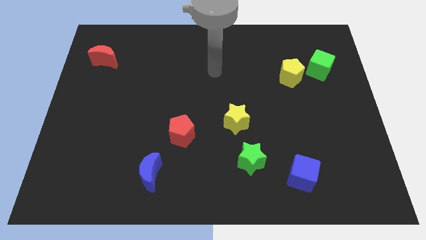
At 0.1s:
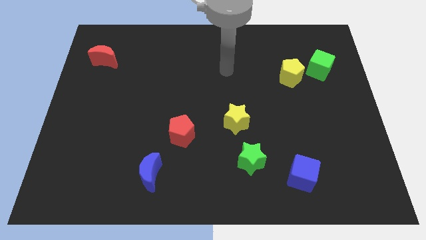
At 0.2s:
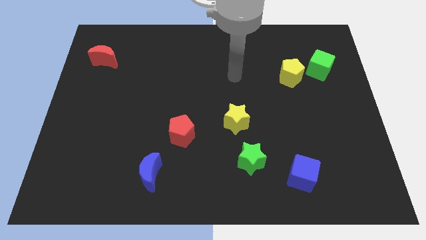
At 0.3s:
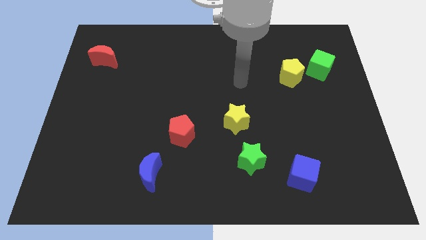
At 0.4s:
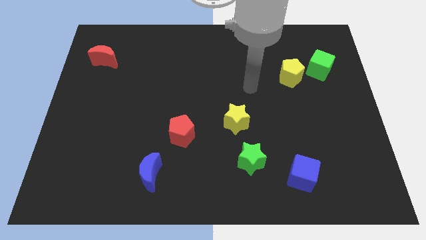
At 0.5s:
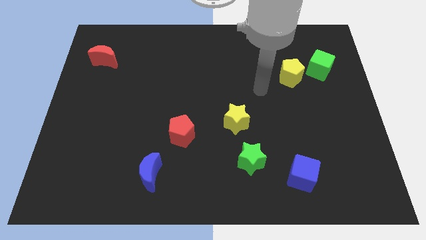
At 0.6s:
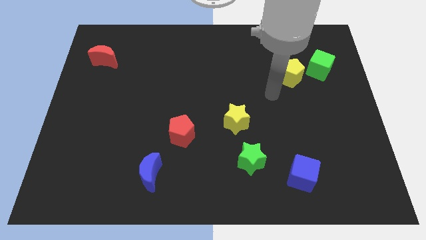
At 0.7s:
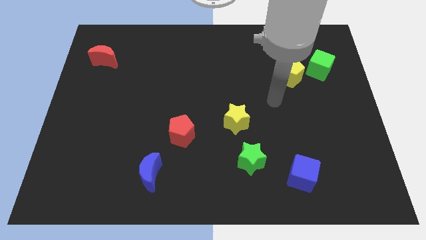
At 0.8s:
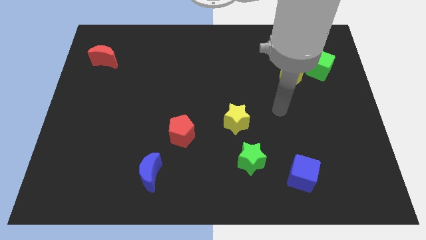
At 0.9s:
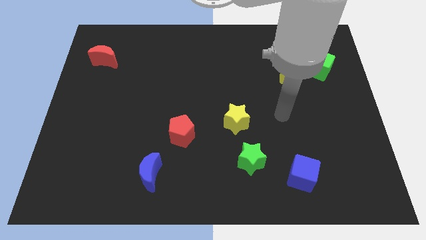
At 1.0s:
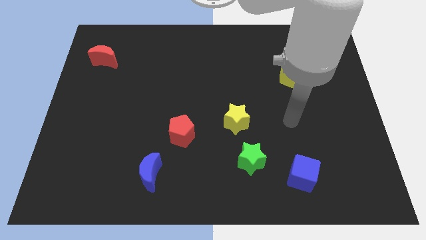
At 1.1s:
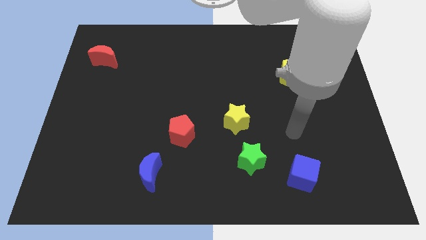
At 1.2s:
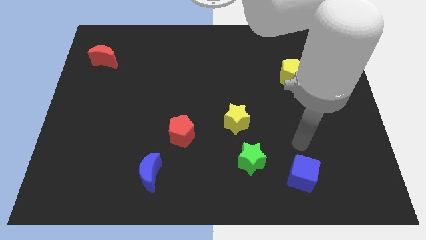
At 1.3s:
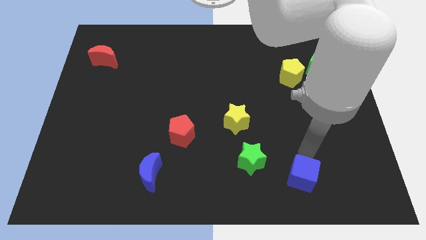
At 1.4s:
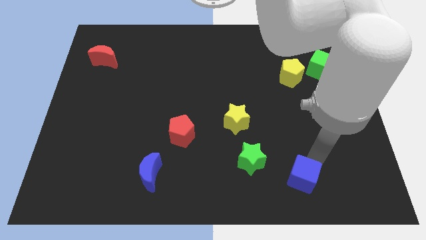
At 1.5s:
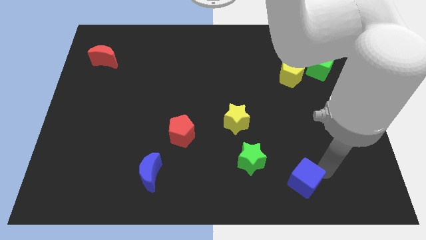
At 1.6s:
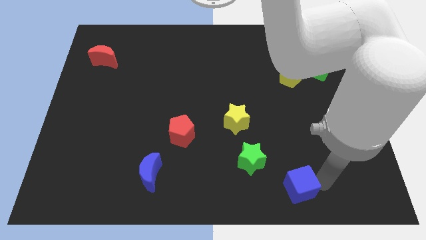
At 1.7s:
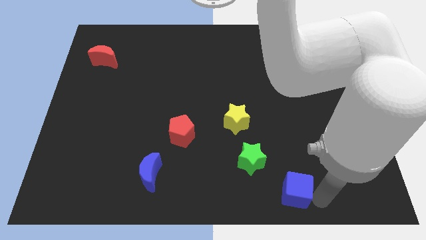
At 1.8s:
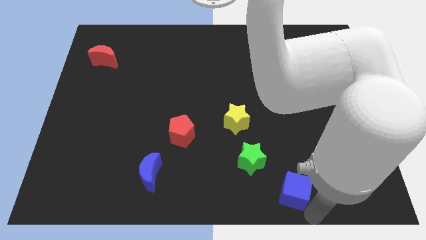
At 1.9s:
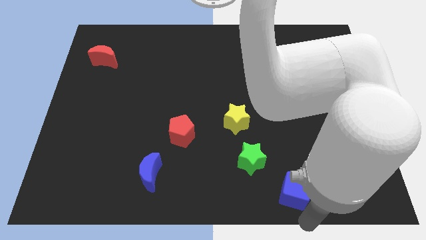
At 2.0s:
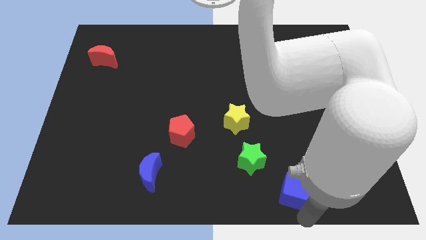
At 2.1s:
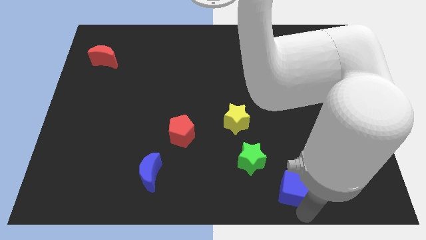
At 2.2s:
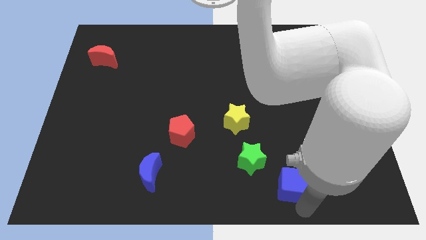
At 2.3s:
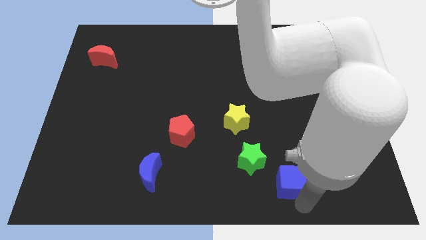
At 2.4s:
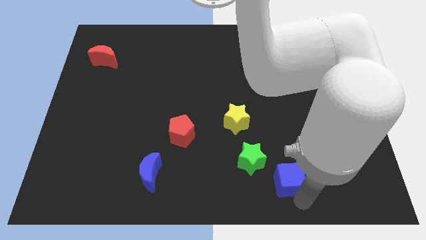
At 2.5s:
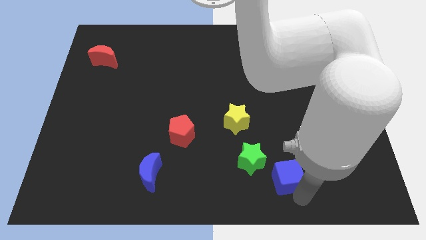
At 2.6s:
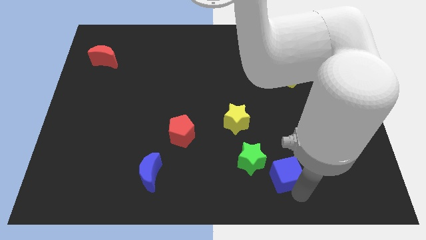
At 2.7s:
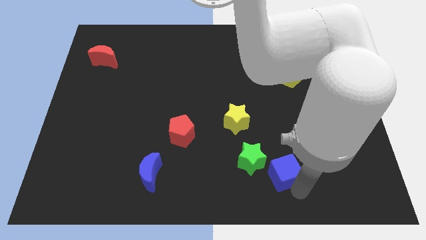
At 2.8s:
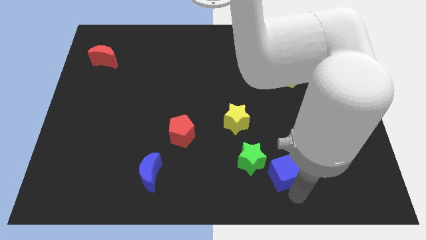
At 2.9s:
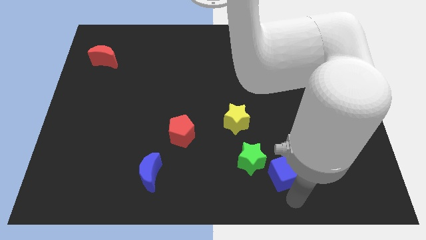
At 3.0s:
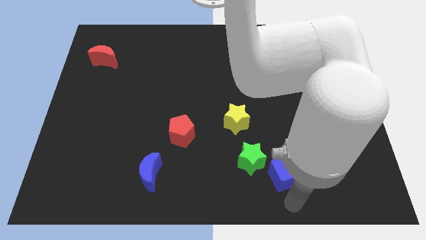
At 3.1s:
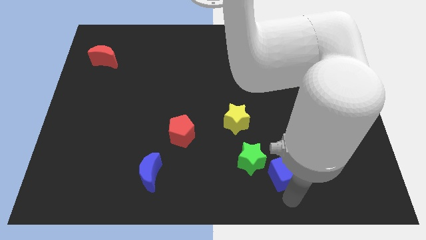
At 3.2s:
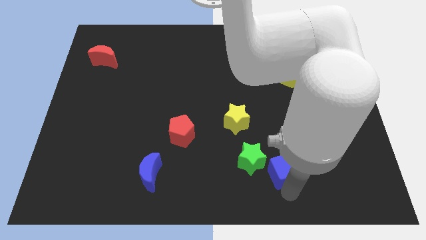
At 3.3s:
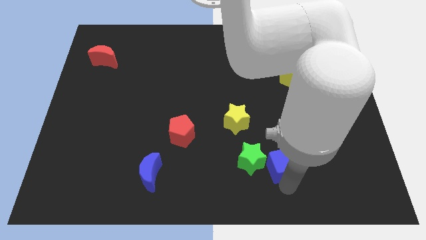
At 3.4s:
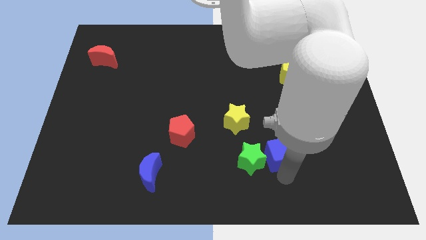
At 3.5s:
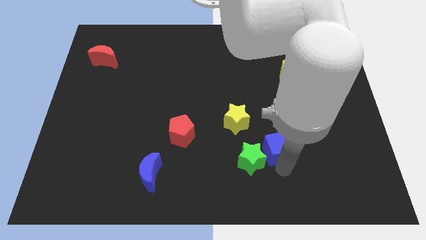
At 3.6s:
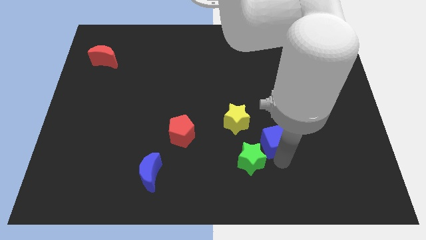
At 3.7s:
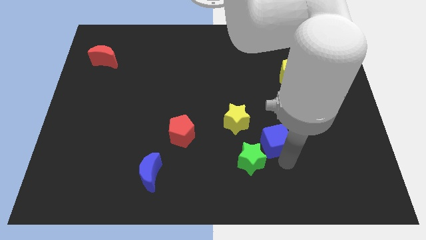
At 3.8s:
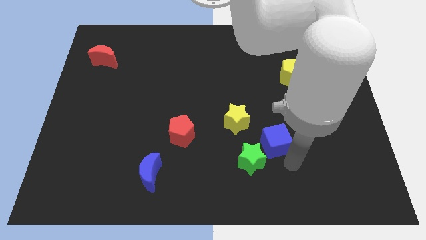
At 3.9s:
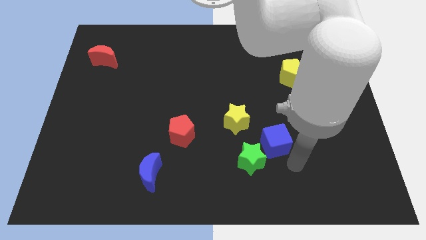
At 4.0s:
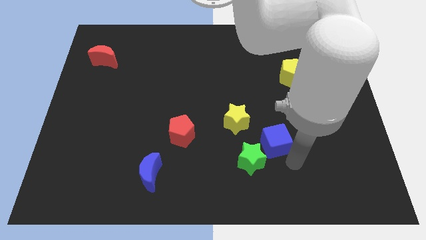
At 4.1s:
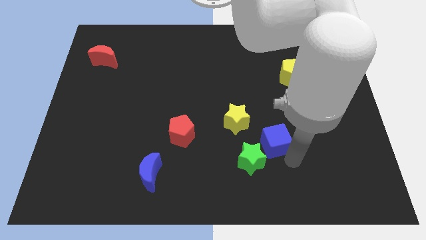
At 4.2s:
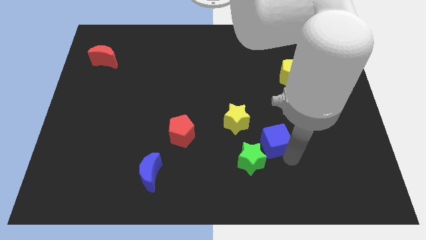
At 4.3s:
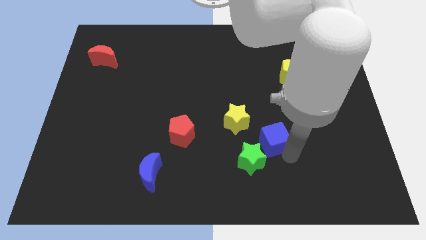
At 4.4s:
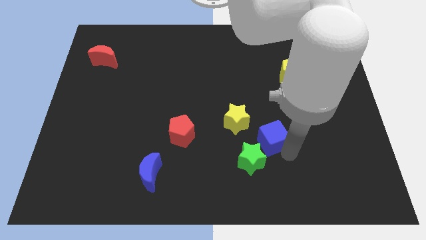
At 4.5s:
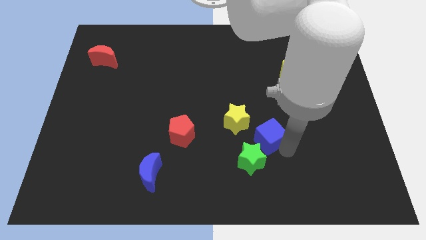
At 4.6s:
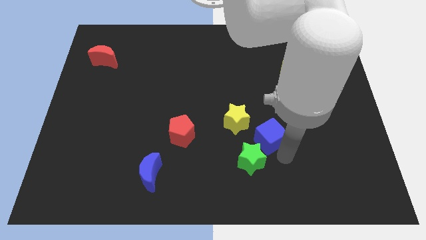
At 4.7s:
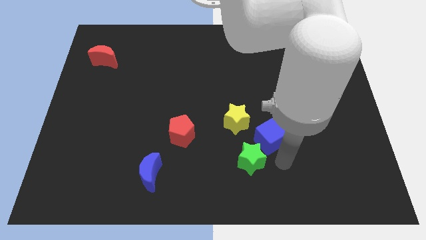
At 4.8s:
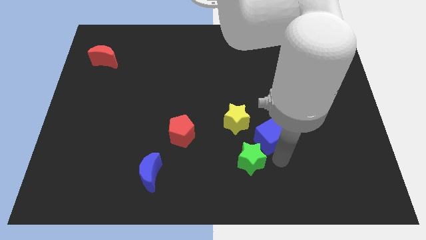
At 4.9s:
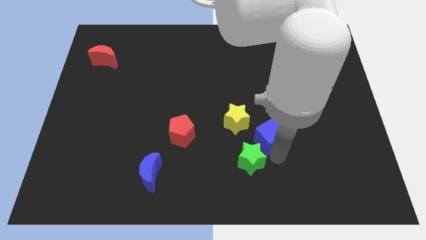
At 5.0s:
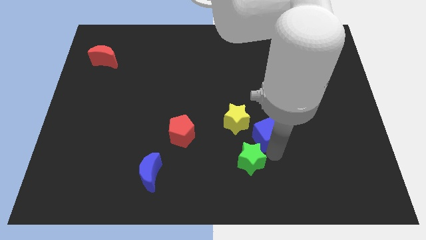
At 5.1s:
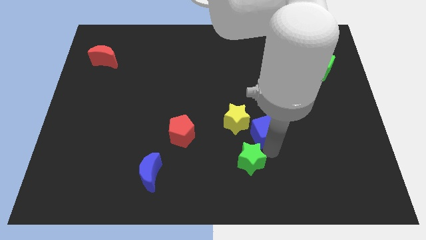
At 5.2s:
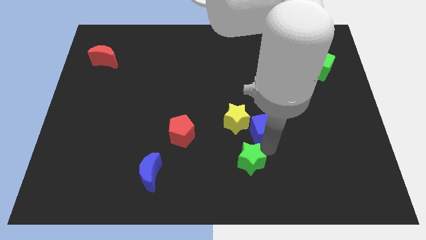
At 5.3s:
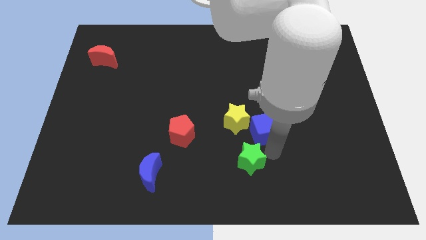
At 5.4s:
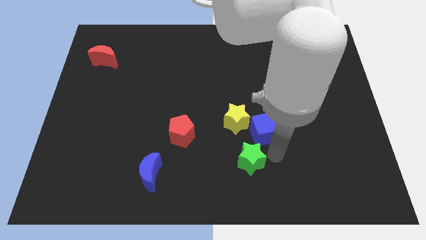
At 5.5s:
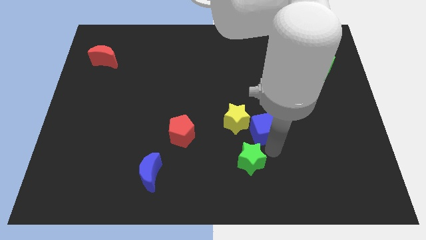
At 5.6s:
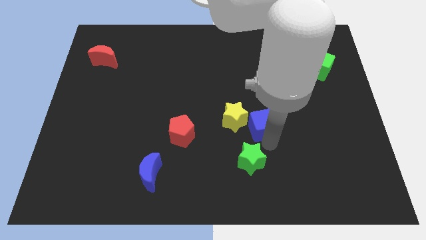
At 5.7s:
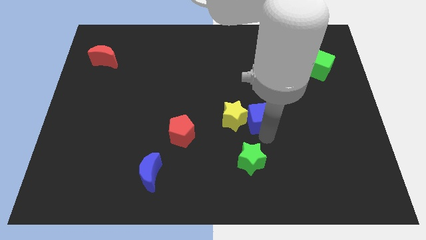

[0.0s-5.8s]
put the blue cube to the middle
